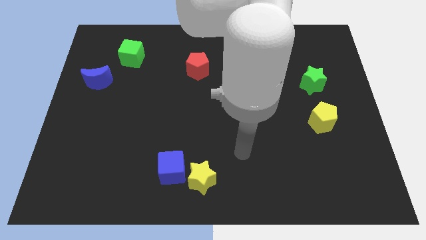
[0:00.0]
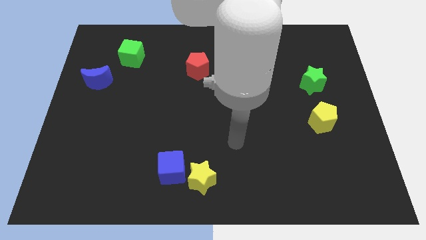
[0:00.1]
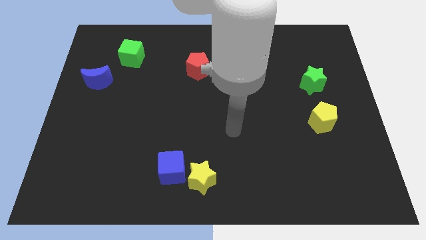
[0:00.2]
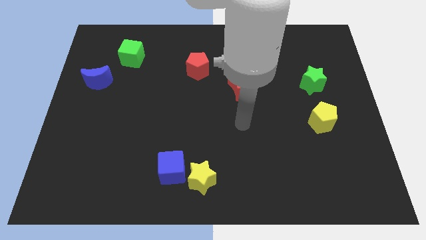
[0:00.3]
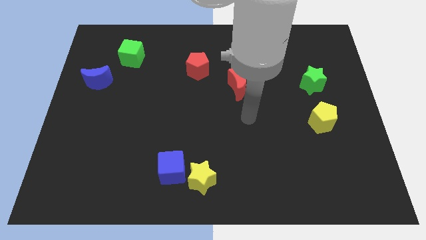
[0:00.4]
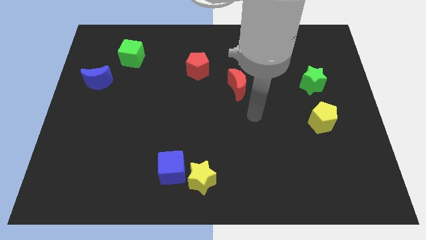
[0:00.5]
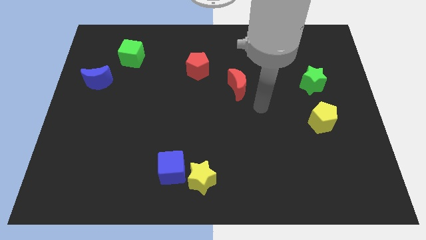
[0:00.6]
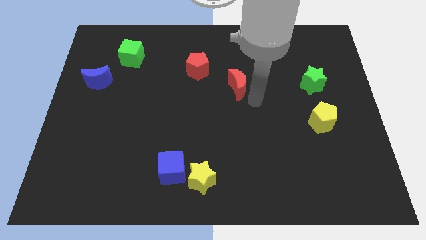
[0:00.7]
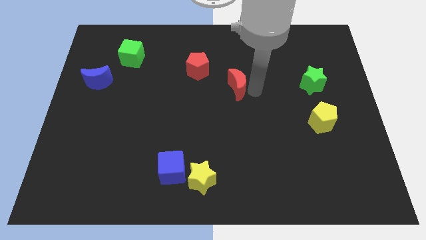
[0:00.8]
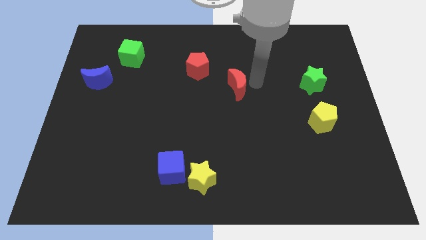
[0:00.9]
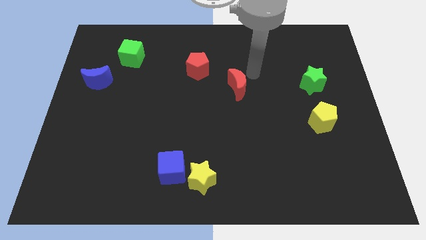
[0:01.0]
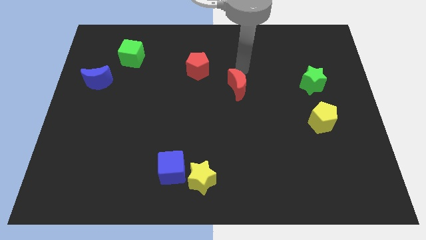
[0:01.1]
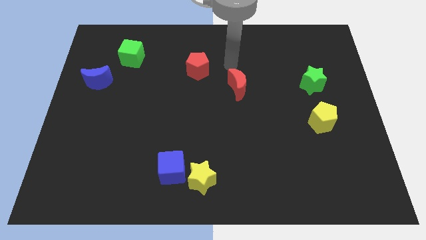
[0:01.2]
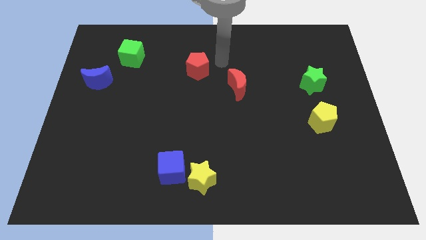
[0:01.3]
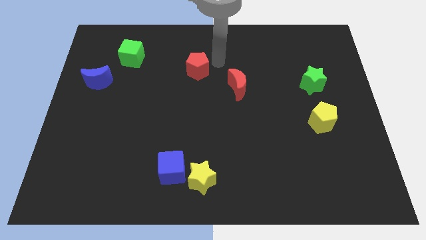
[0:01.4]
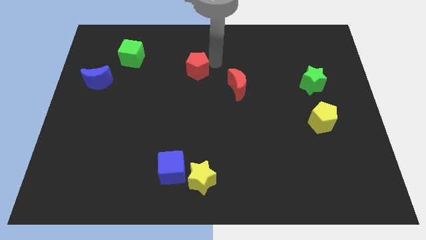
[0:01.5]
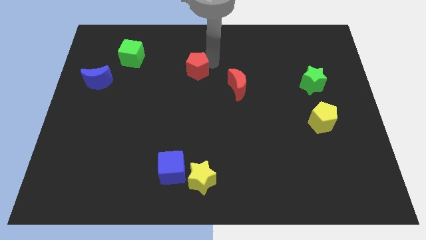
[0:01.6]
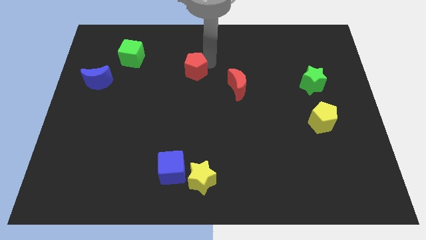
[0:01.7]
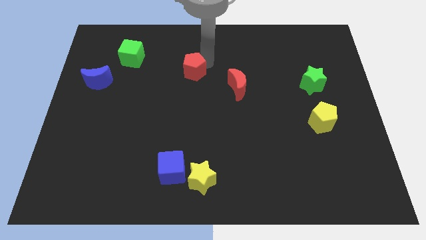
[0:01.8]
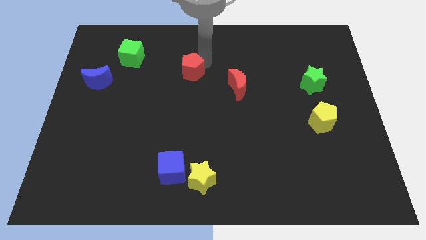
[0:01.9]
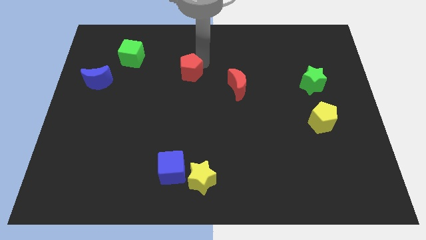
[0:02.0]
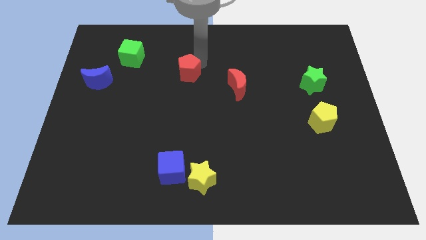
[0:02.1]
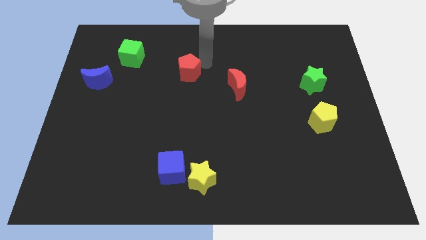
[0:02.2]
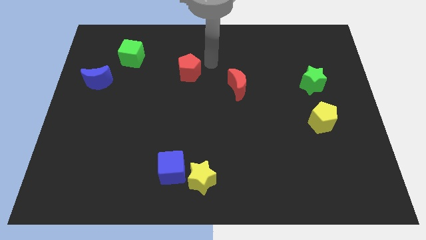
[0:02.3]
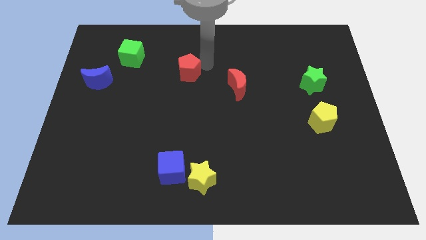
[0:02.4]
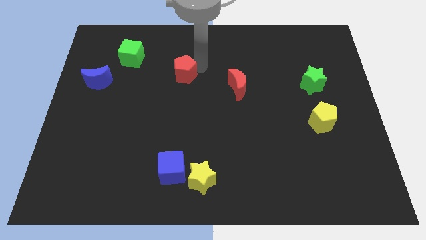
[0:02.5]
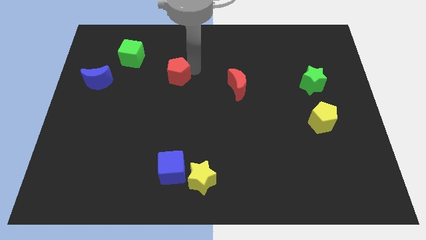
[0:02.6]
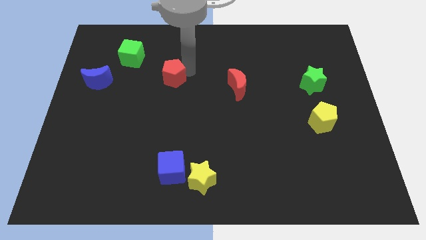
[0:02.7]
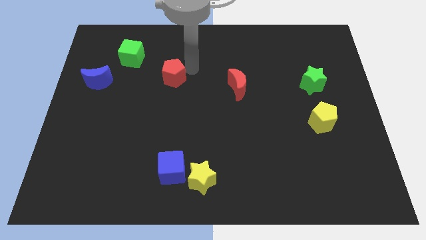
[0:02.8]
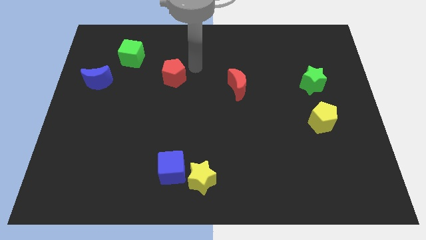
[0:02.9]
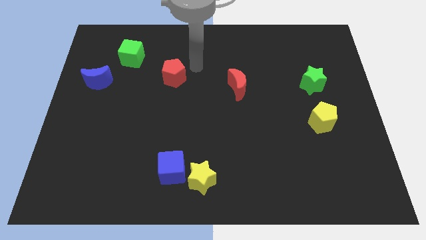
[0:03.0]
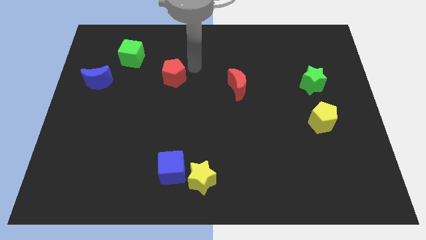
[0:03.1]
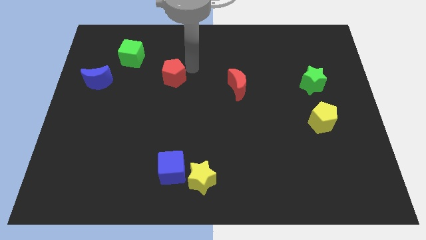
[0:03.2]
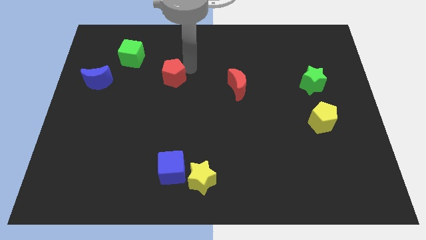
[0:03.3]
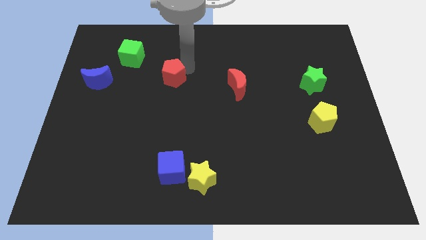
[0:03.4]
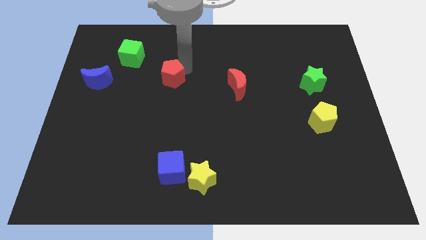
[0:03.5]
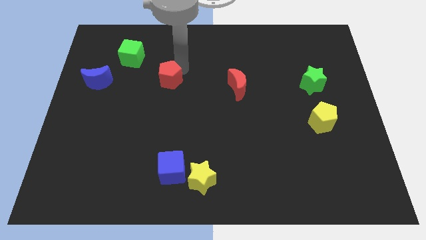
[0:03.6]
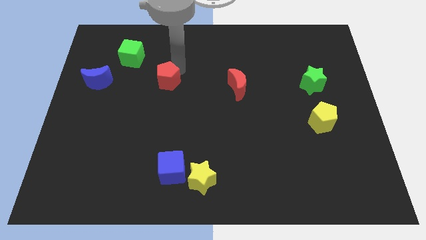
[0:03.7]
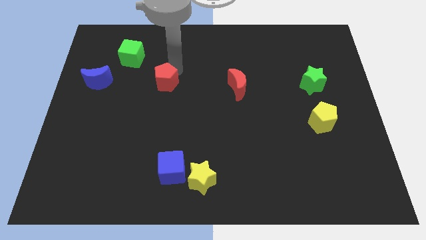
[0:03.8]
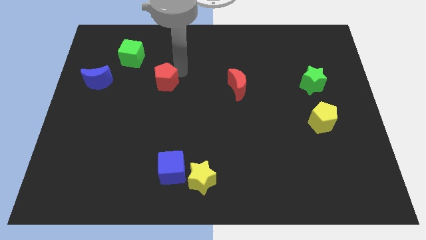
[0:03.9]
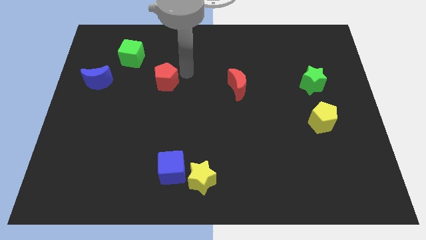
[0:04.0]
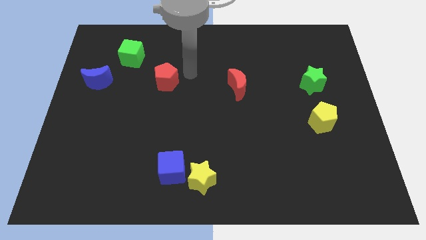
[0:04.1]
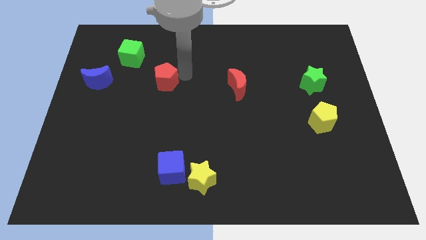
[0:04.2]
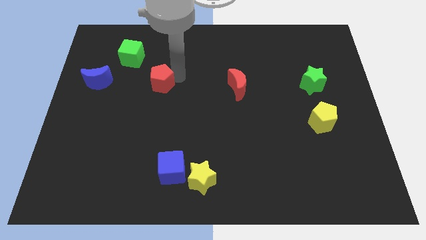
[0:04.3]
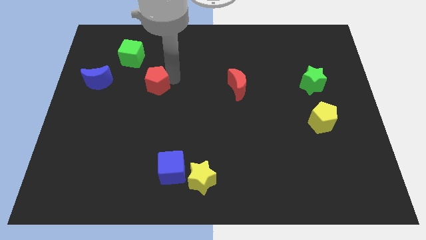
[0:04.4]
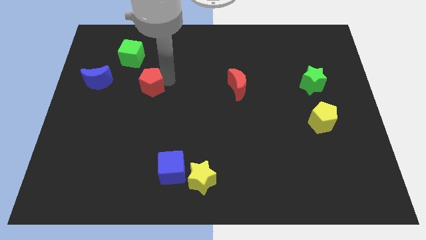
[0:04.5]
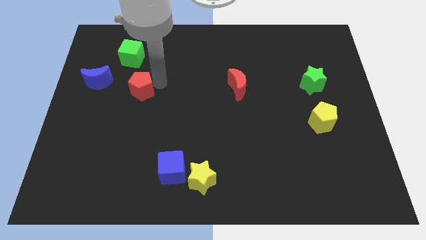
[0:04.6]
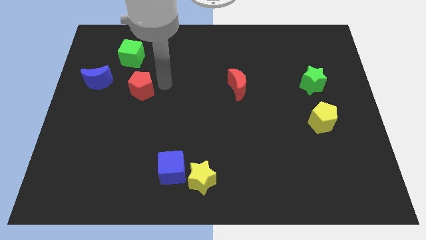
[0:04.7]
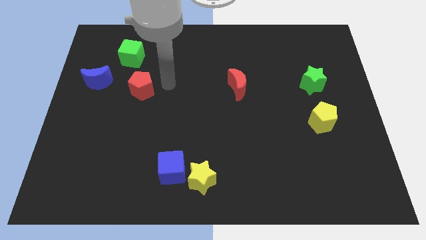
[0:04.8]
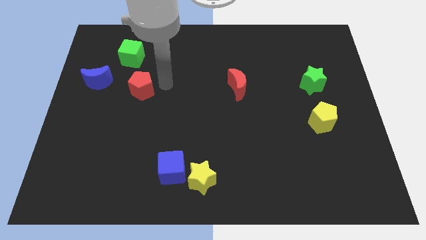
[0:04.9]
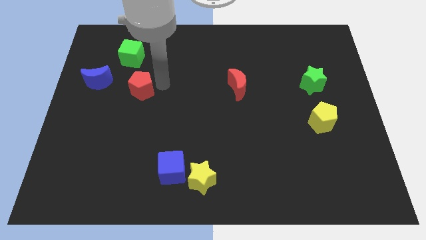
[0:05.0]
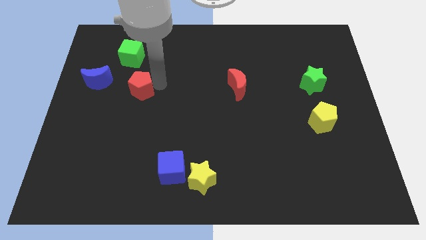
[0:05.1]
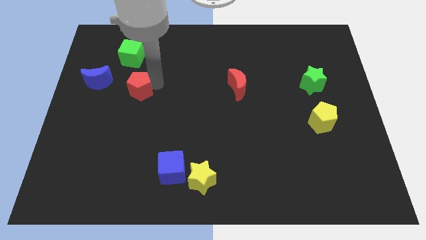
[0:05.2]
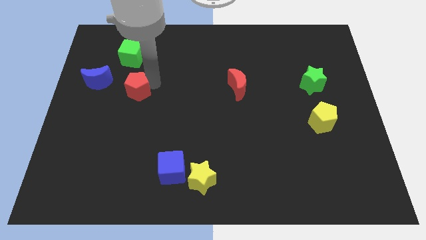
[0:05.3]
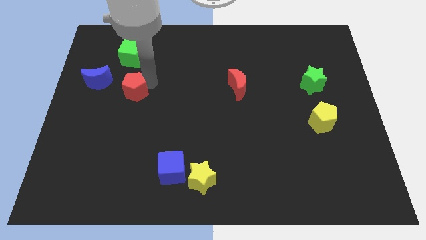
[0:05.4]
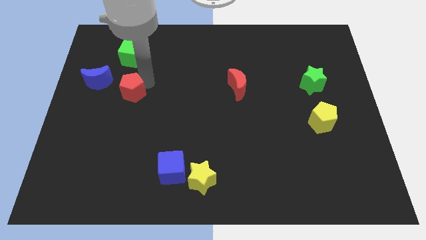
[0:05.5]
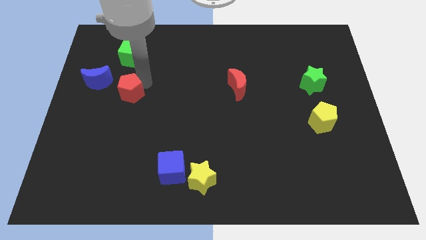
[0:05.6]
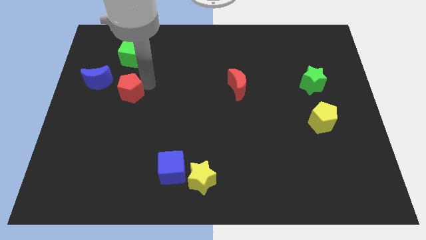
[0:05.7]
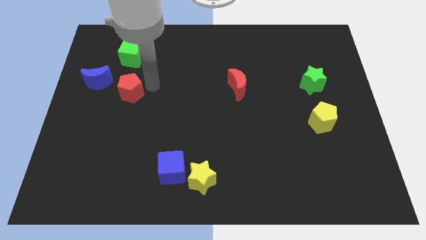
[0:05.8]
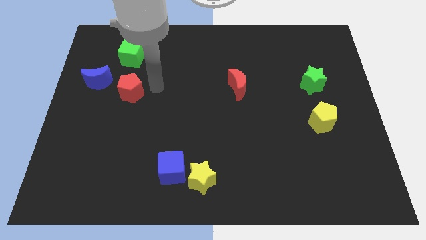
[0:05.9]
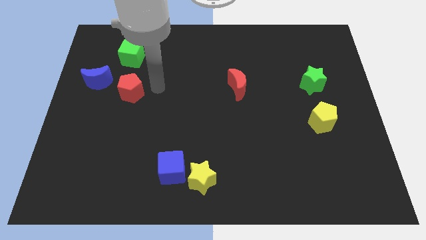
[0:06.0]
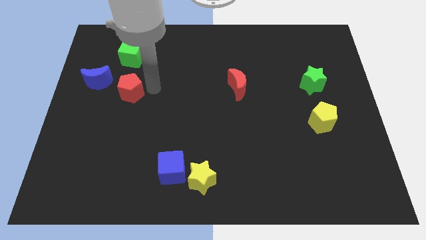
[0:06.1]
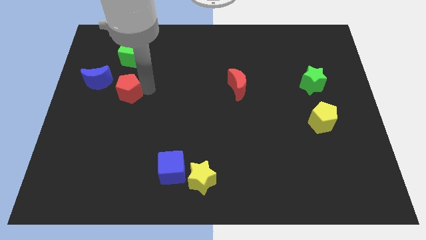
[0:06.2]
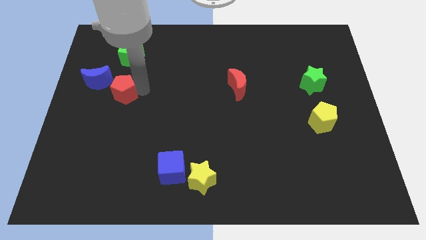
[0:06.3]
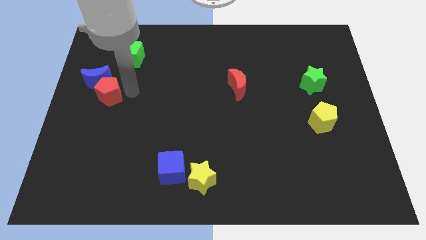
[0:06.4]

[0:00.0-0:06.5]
put the red pentagon to the center left
